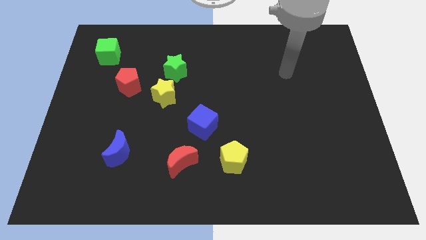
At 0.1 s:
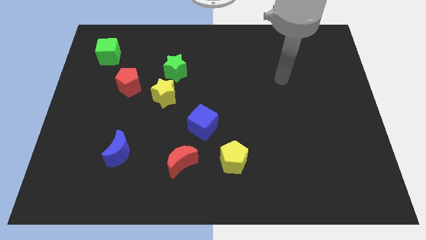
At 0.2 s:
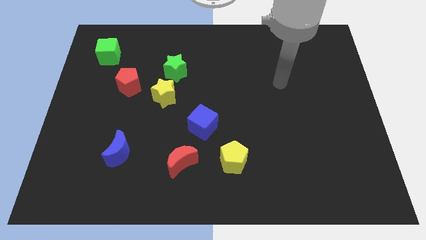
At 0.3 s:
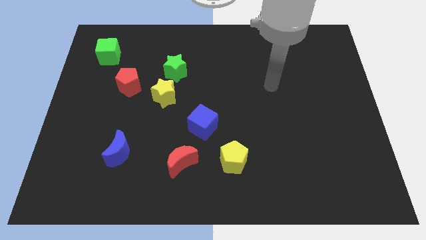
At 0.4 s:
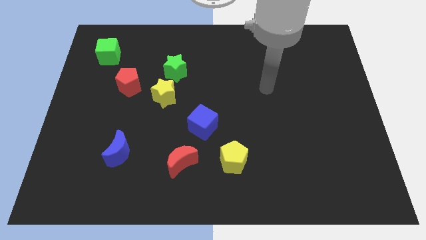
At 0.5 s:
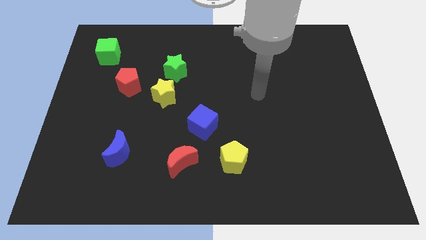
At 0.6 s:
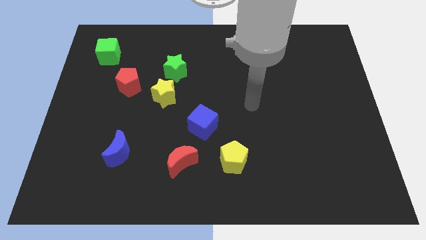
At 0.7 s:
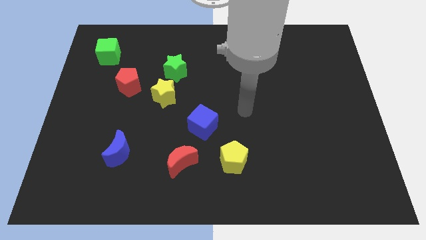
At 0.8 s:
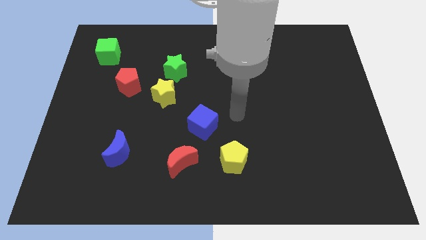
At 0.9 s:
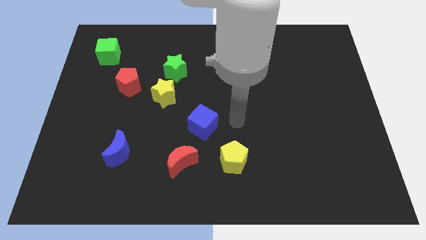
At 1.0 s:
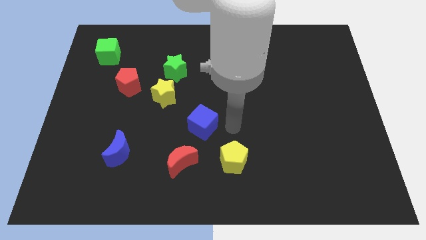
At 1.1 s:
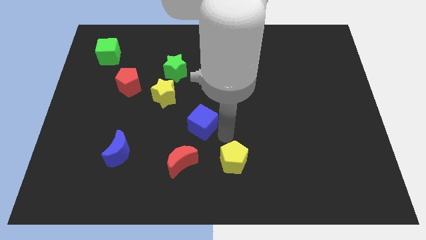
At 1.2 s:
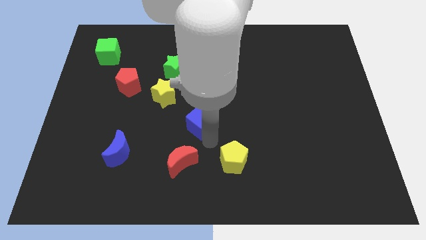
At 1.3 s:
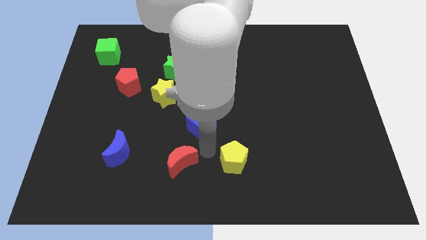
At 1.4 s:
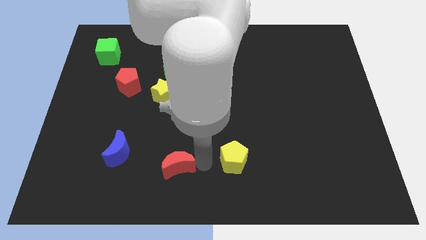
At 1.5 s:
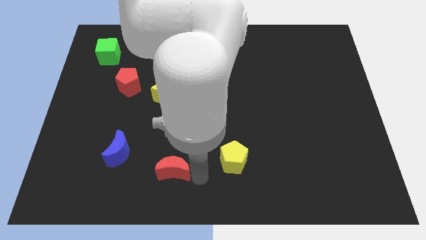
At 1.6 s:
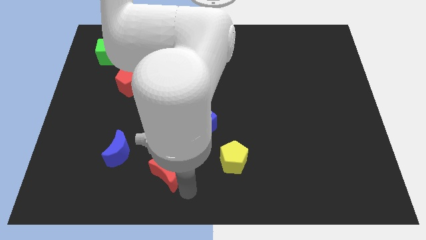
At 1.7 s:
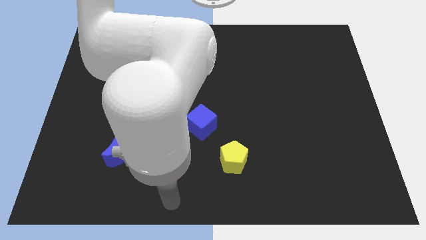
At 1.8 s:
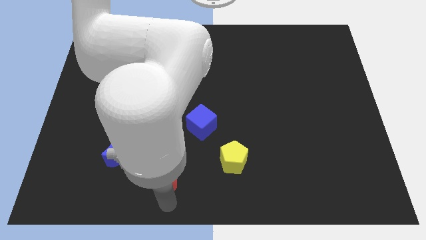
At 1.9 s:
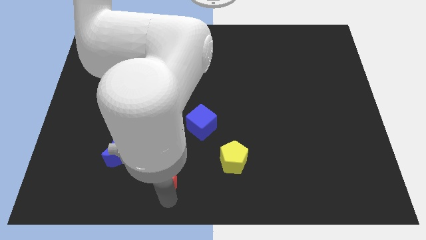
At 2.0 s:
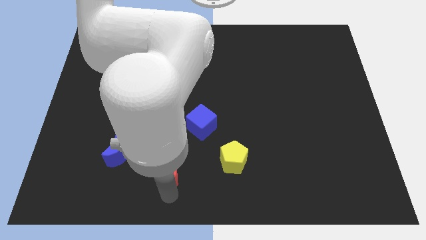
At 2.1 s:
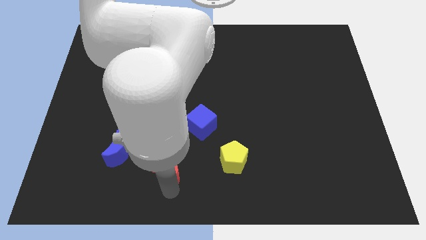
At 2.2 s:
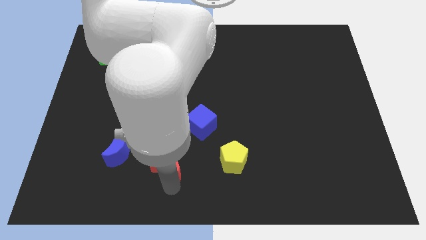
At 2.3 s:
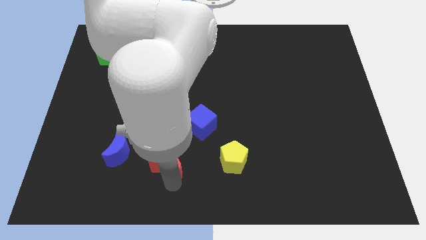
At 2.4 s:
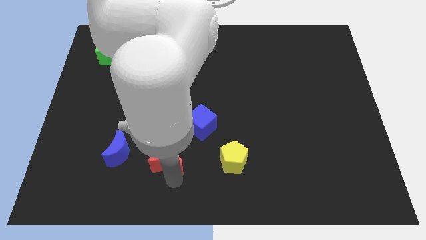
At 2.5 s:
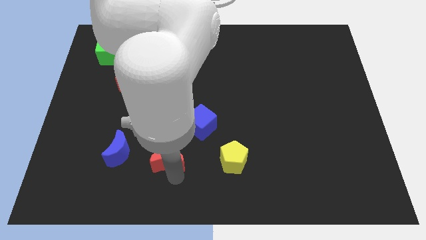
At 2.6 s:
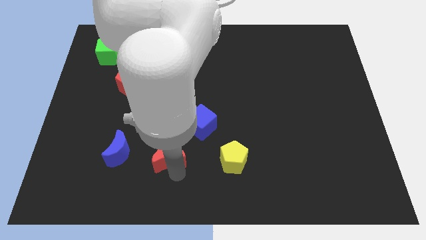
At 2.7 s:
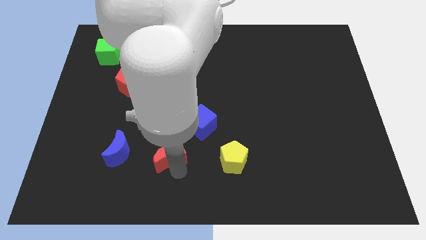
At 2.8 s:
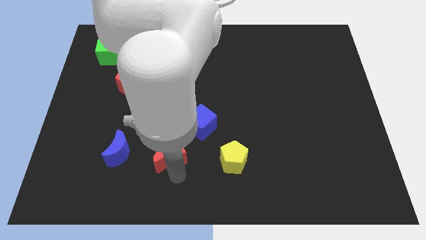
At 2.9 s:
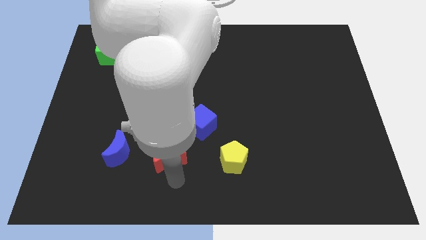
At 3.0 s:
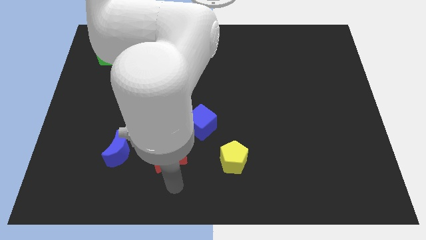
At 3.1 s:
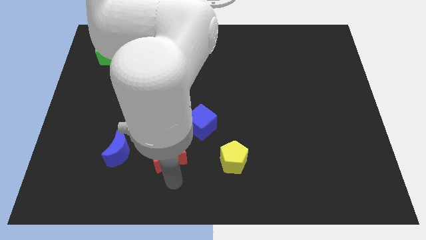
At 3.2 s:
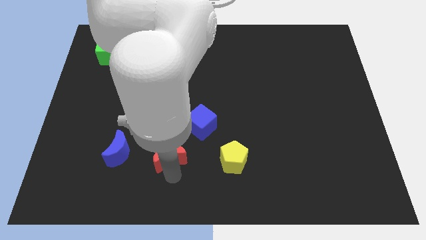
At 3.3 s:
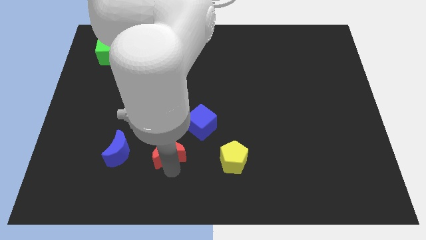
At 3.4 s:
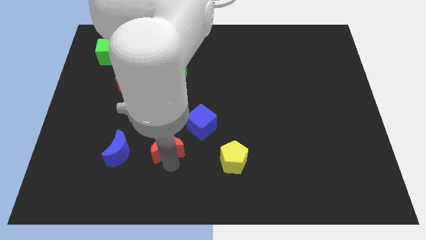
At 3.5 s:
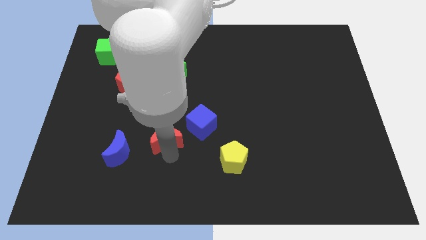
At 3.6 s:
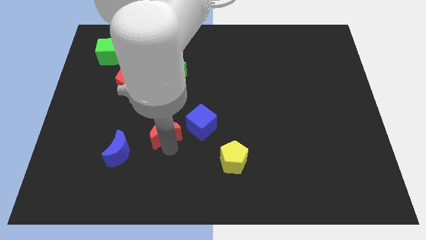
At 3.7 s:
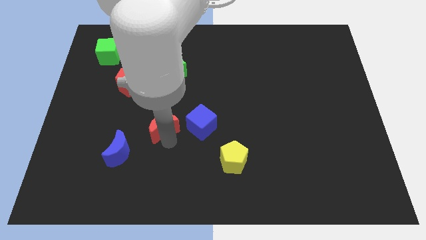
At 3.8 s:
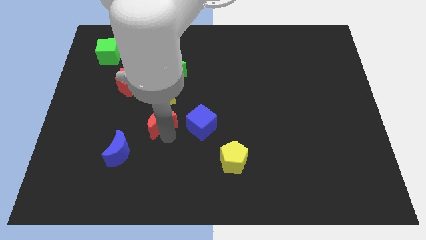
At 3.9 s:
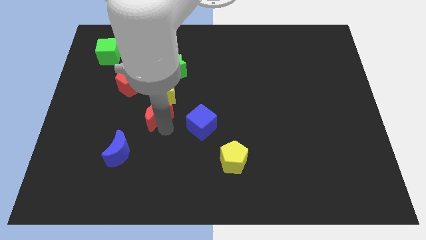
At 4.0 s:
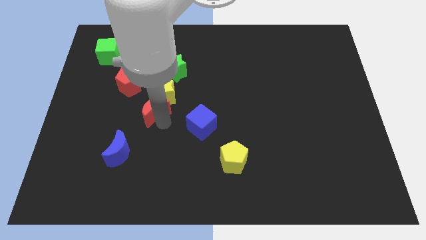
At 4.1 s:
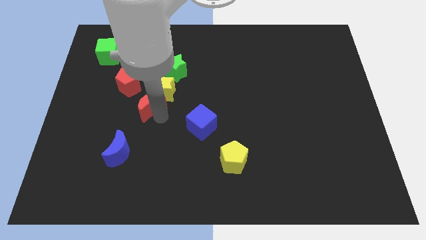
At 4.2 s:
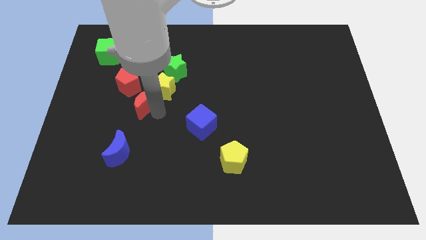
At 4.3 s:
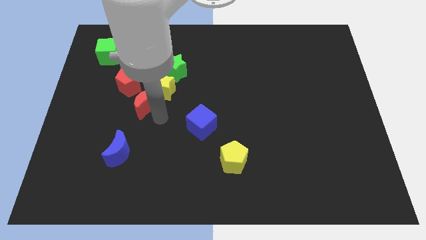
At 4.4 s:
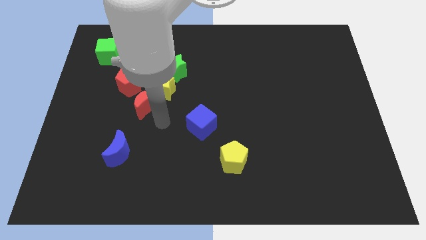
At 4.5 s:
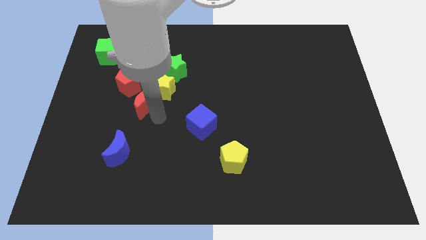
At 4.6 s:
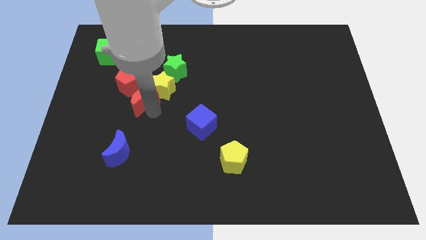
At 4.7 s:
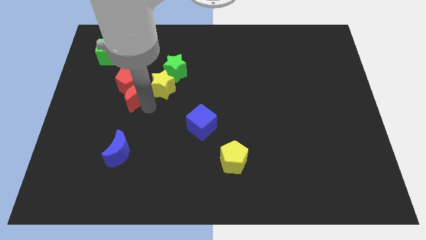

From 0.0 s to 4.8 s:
push the red moon close to the red pentagon

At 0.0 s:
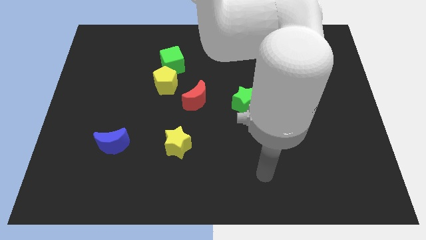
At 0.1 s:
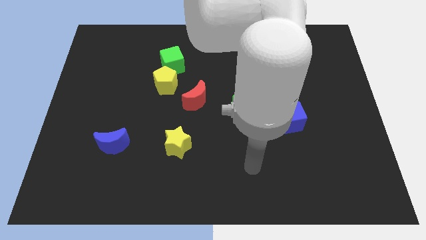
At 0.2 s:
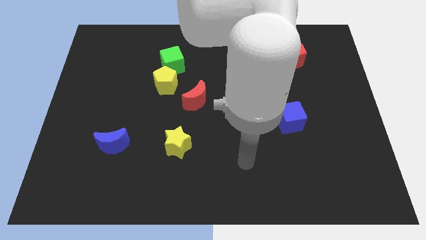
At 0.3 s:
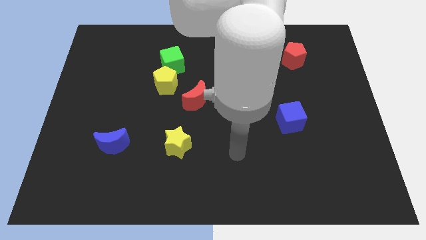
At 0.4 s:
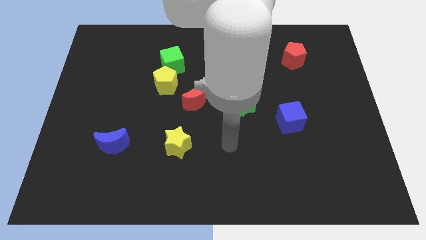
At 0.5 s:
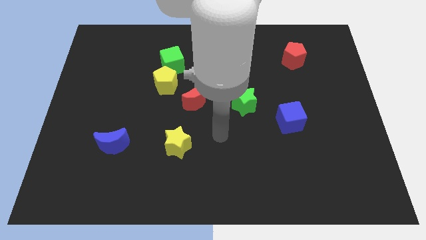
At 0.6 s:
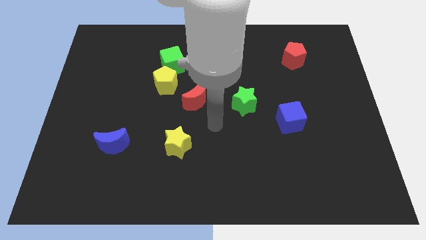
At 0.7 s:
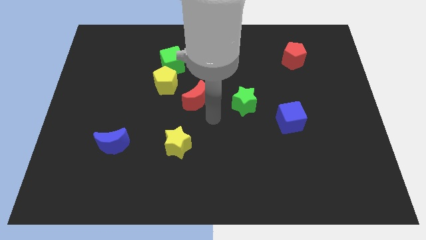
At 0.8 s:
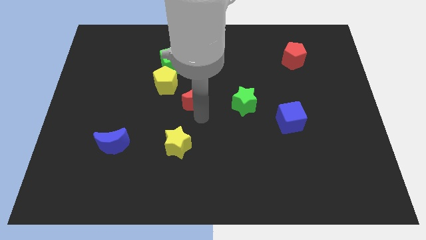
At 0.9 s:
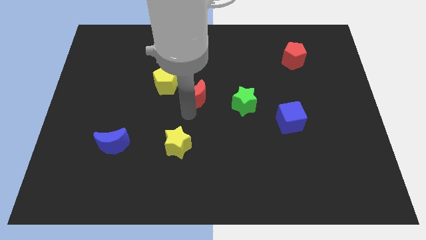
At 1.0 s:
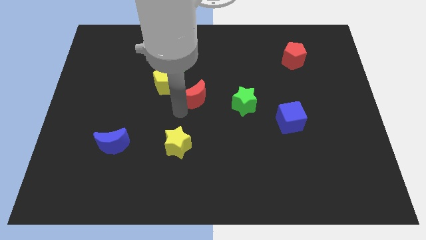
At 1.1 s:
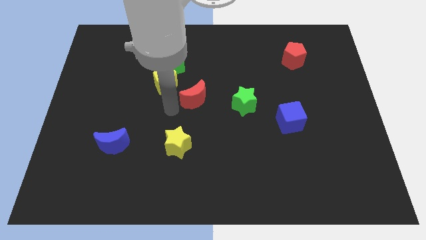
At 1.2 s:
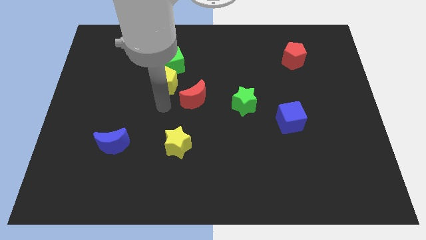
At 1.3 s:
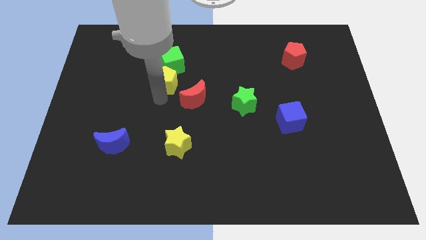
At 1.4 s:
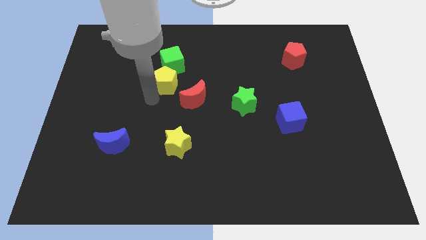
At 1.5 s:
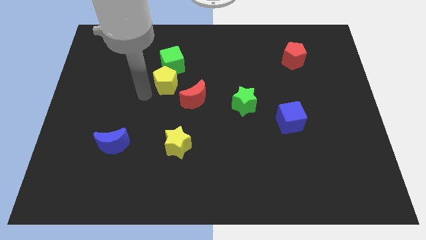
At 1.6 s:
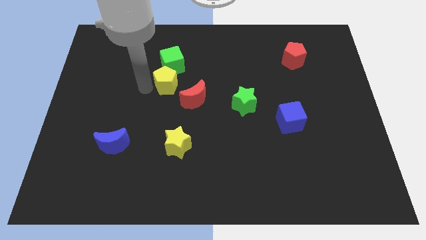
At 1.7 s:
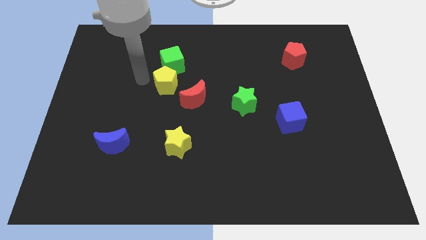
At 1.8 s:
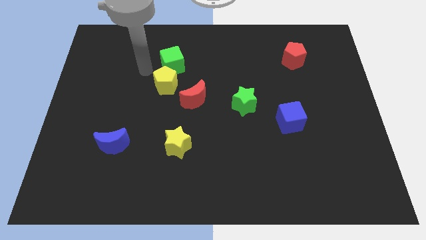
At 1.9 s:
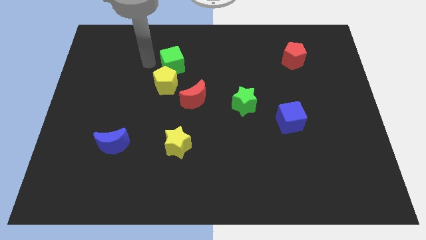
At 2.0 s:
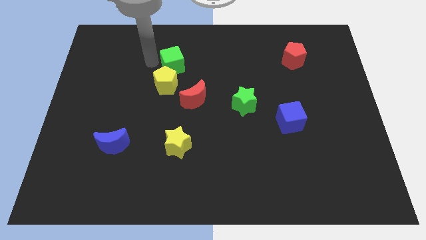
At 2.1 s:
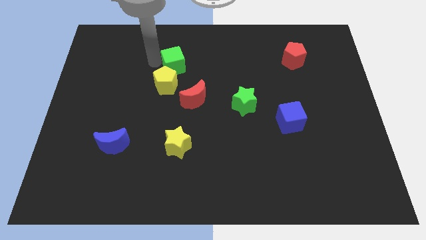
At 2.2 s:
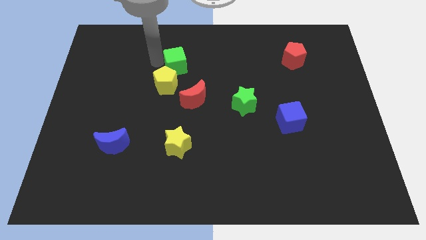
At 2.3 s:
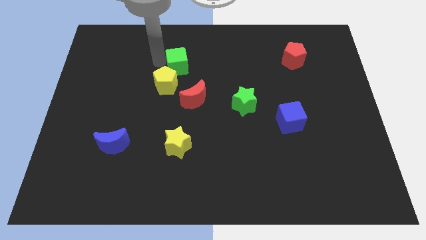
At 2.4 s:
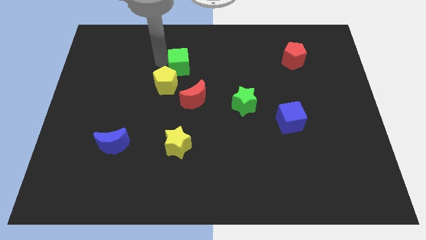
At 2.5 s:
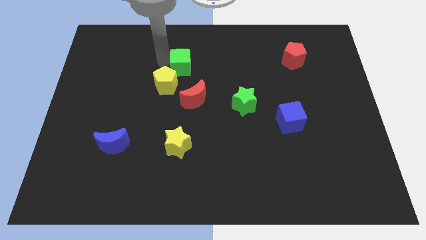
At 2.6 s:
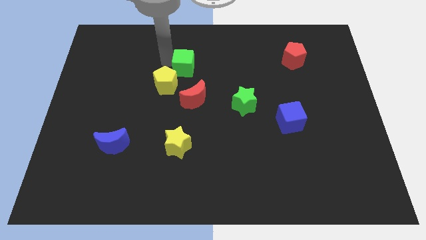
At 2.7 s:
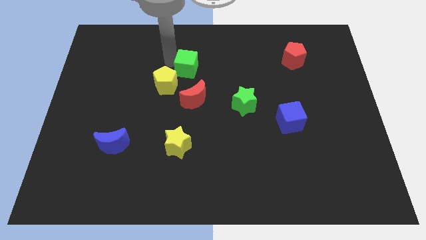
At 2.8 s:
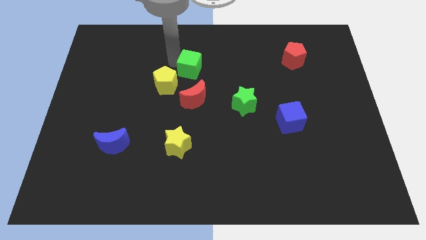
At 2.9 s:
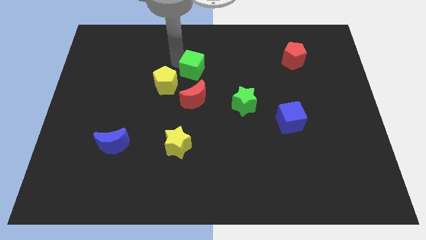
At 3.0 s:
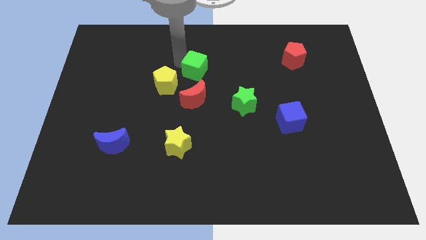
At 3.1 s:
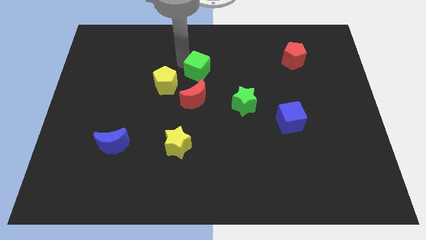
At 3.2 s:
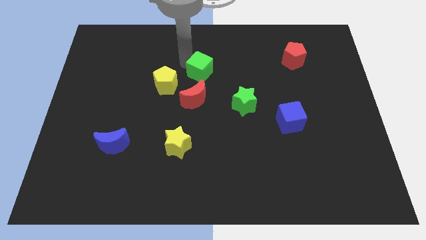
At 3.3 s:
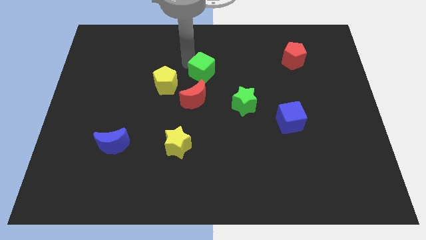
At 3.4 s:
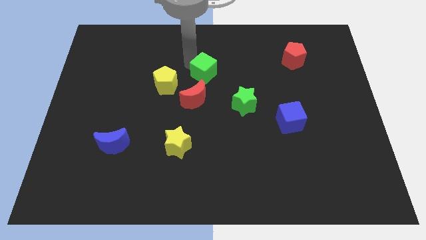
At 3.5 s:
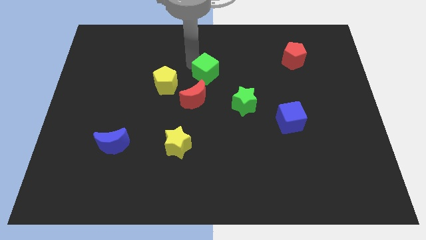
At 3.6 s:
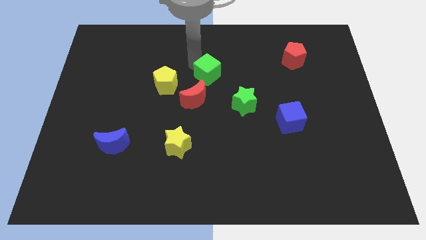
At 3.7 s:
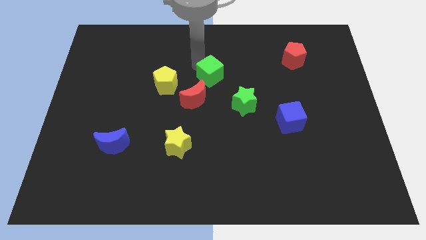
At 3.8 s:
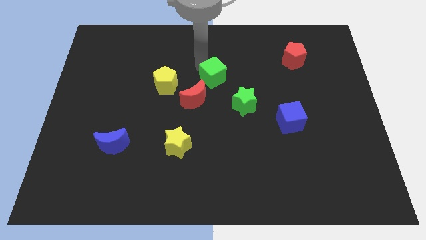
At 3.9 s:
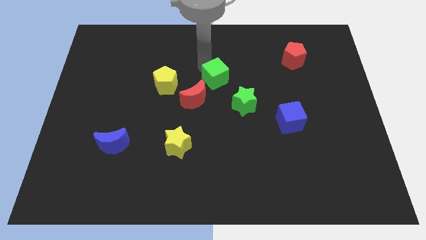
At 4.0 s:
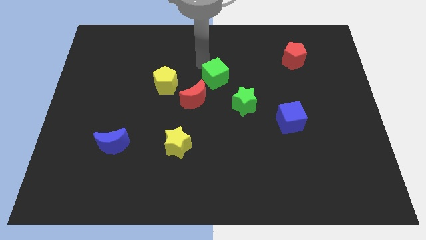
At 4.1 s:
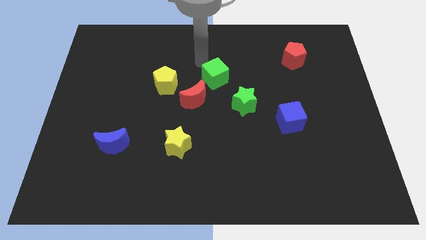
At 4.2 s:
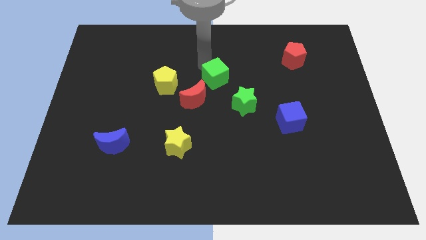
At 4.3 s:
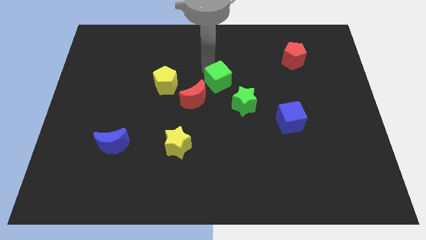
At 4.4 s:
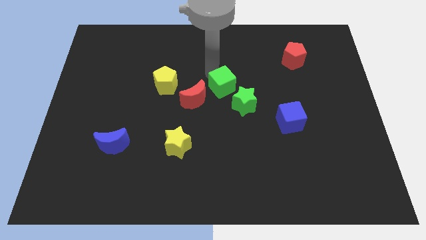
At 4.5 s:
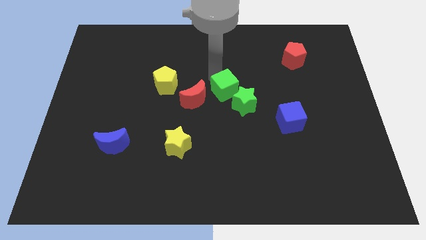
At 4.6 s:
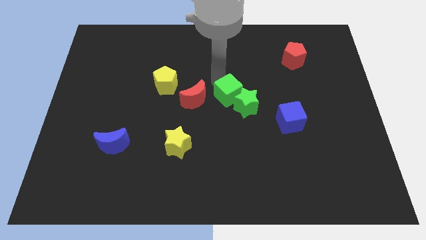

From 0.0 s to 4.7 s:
slide the green cube to the green star
